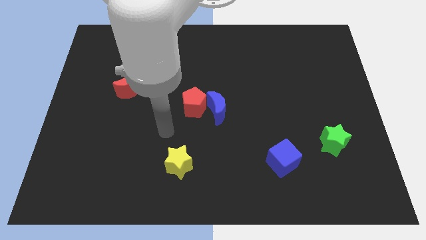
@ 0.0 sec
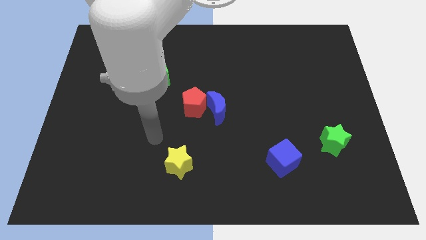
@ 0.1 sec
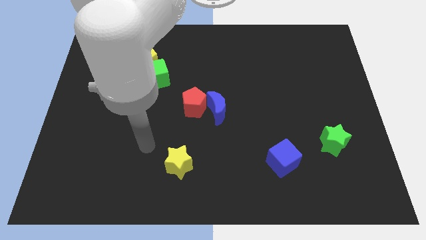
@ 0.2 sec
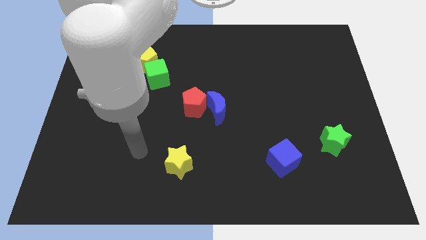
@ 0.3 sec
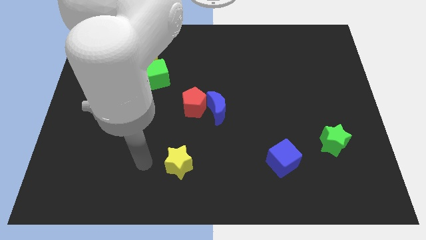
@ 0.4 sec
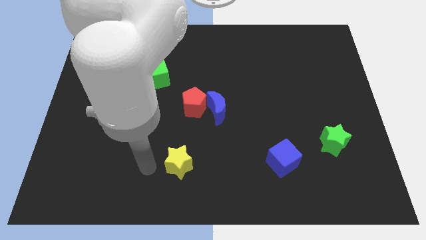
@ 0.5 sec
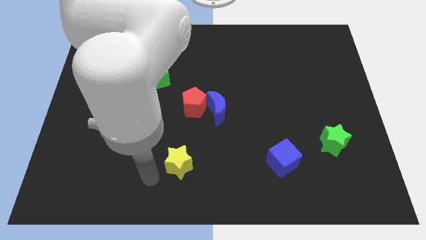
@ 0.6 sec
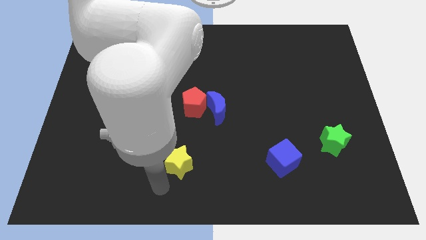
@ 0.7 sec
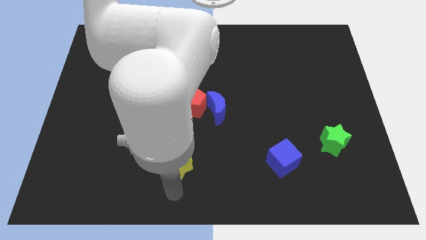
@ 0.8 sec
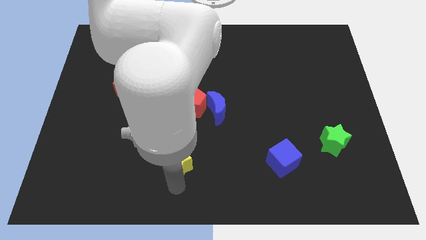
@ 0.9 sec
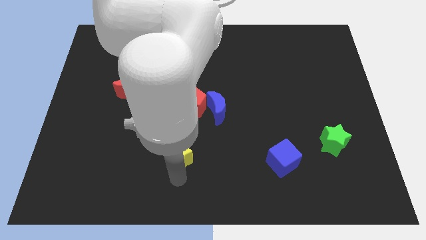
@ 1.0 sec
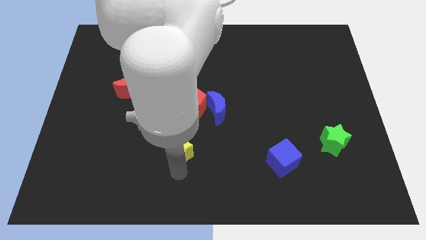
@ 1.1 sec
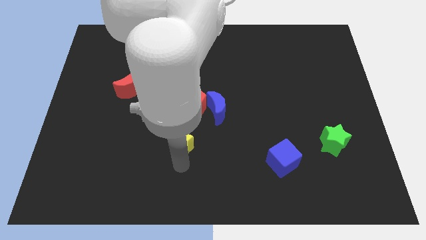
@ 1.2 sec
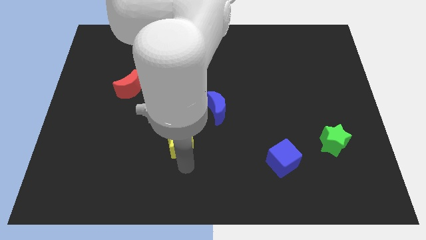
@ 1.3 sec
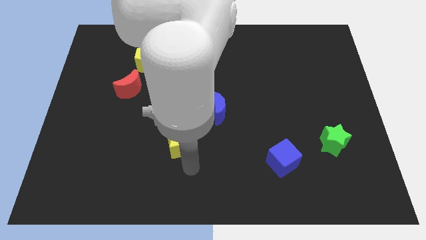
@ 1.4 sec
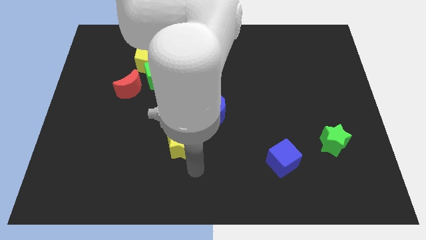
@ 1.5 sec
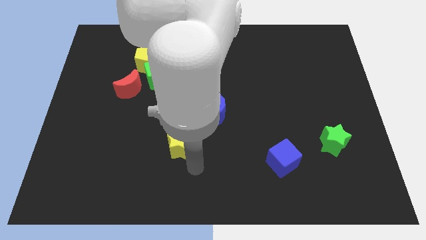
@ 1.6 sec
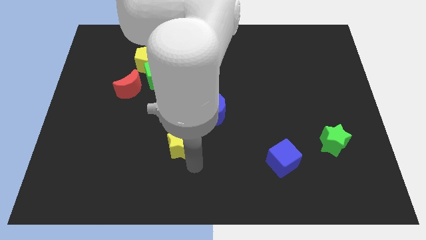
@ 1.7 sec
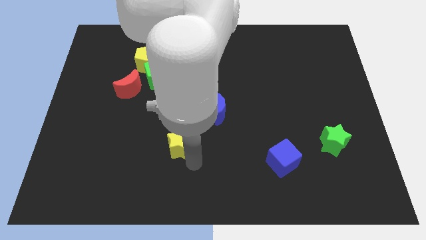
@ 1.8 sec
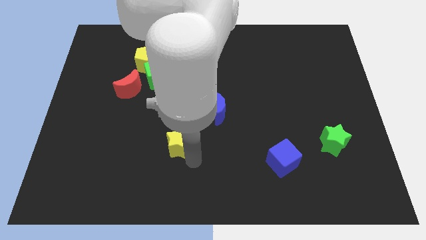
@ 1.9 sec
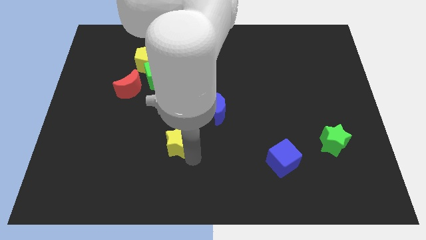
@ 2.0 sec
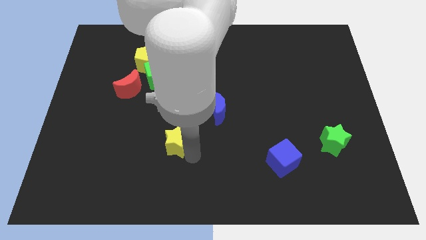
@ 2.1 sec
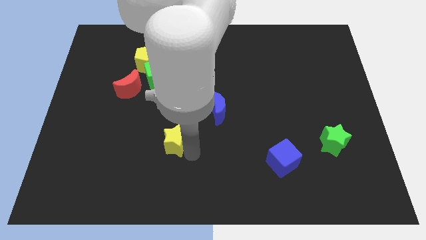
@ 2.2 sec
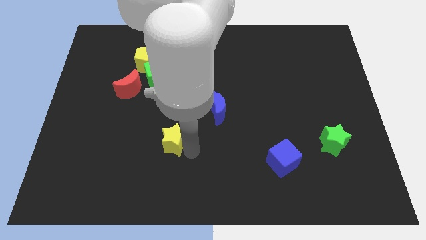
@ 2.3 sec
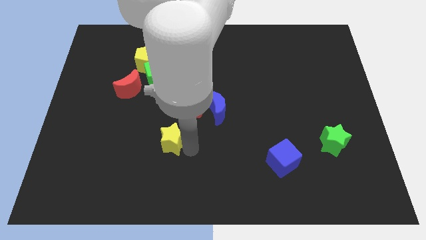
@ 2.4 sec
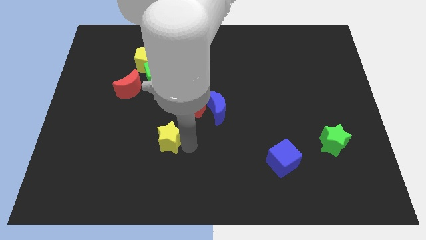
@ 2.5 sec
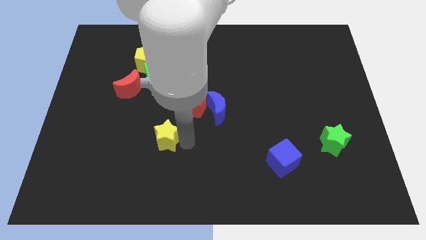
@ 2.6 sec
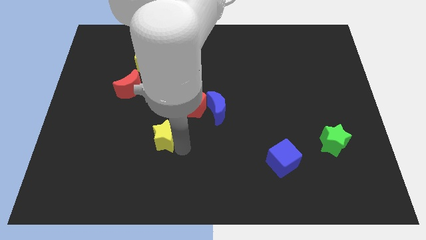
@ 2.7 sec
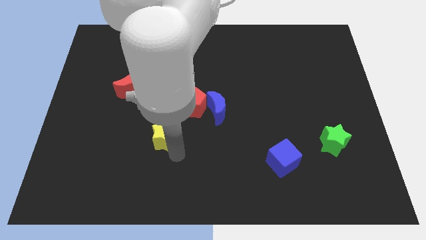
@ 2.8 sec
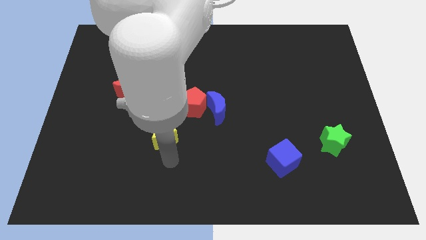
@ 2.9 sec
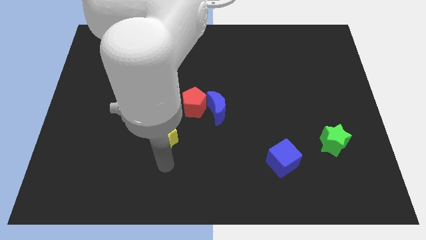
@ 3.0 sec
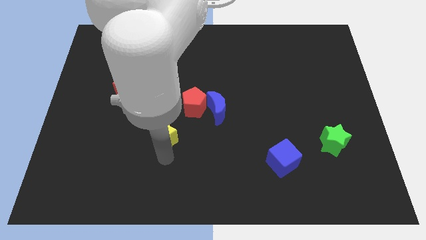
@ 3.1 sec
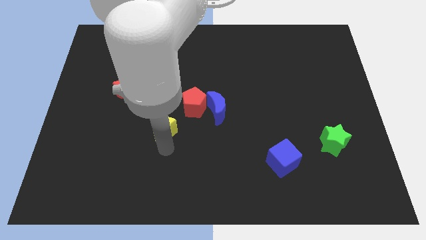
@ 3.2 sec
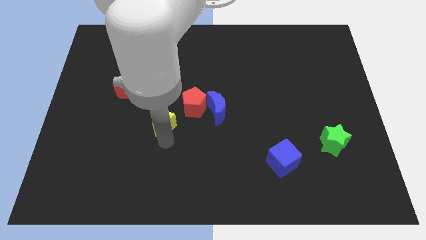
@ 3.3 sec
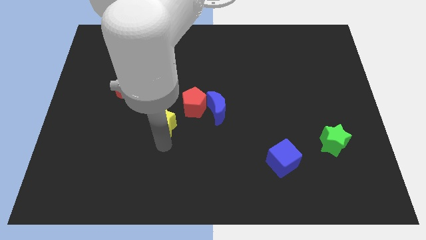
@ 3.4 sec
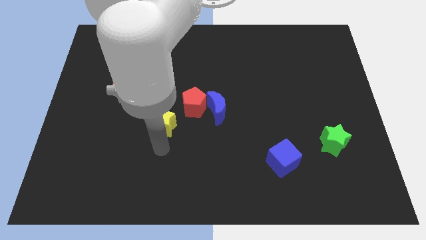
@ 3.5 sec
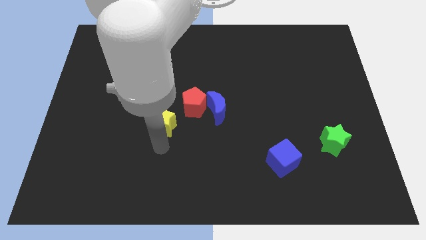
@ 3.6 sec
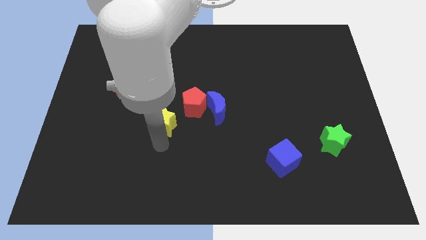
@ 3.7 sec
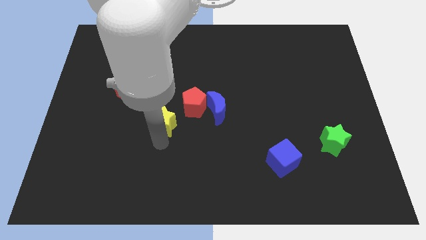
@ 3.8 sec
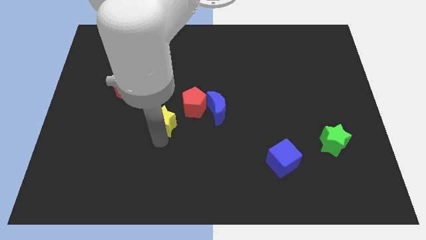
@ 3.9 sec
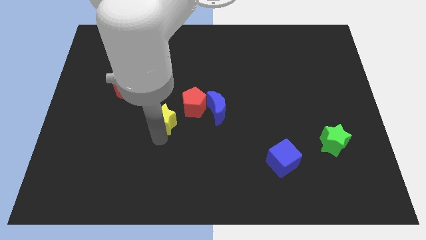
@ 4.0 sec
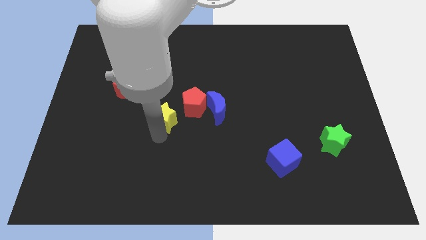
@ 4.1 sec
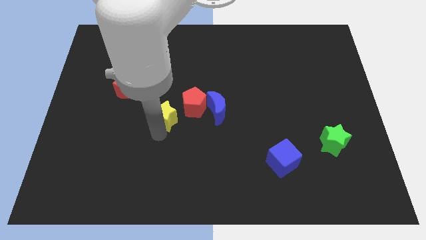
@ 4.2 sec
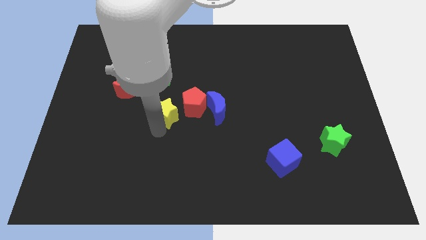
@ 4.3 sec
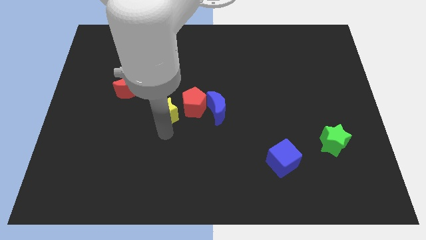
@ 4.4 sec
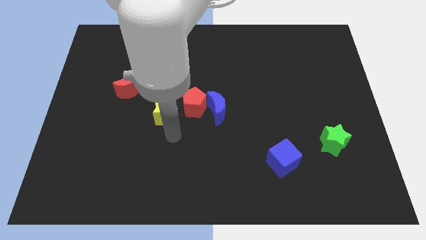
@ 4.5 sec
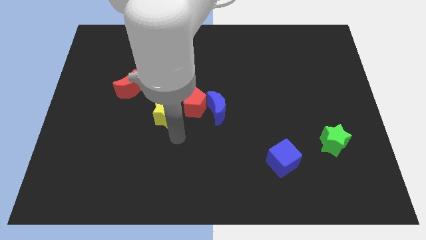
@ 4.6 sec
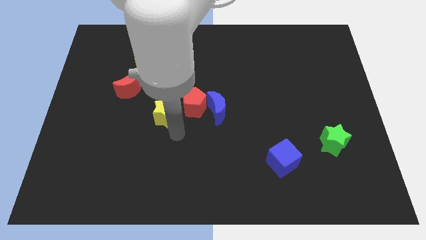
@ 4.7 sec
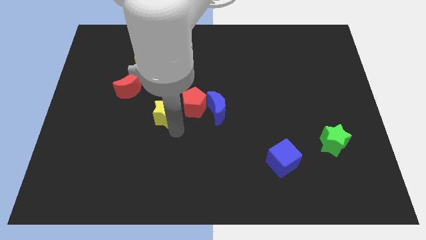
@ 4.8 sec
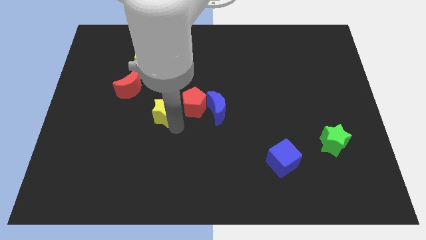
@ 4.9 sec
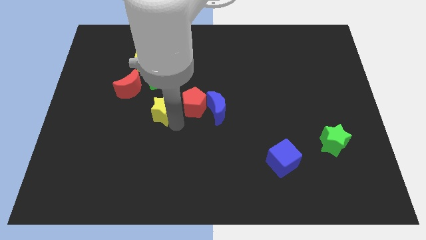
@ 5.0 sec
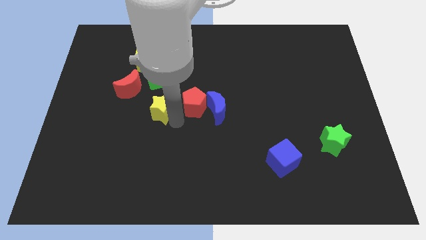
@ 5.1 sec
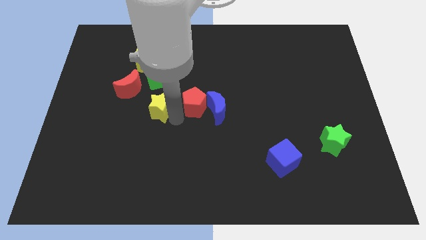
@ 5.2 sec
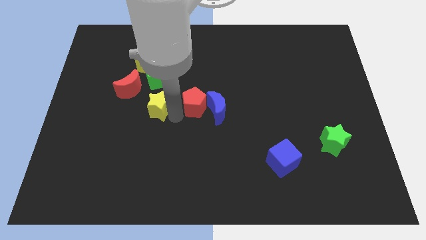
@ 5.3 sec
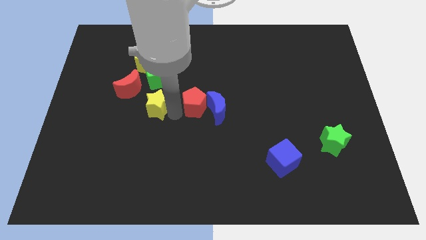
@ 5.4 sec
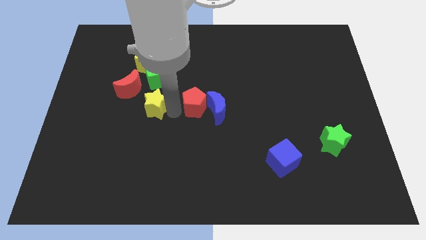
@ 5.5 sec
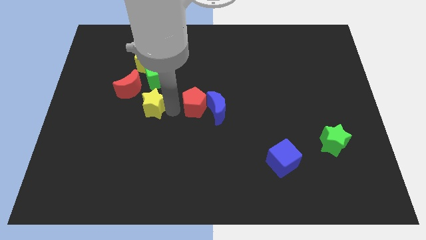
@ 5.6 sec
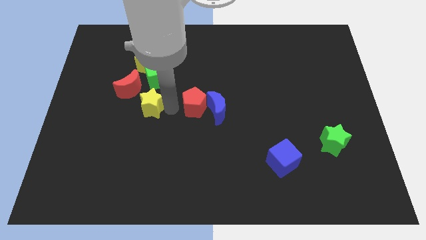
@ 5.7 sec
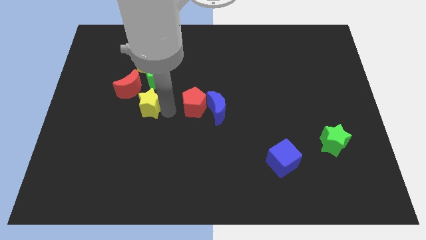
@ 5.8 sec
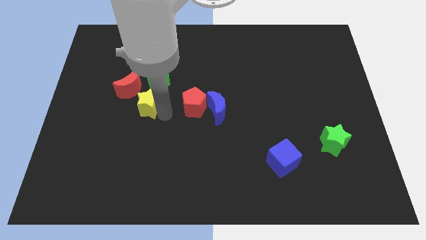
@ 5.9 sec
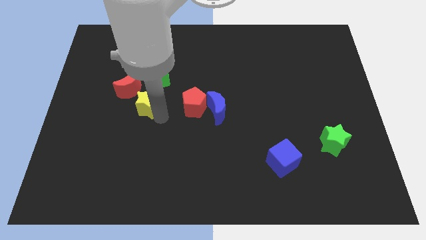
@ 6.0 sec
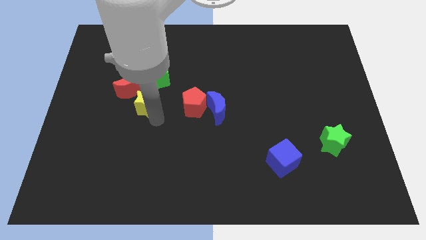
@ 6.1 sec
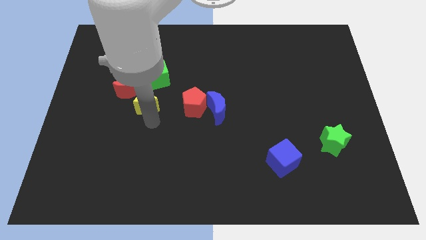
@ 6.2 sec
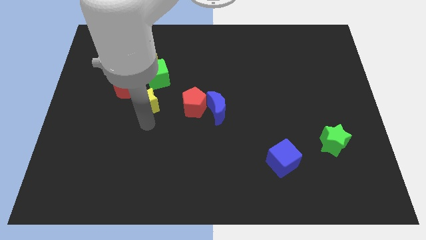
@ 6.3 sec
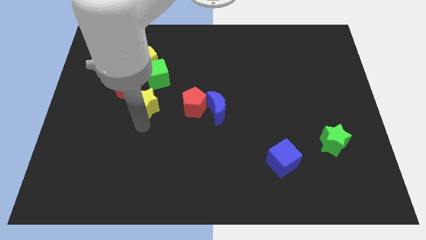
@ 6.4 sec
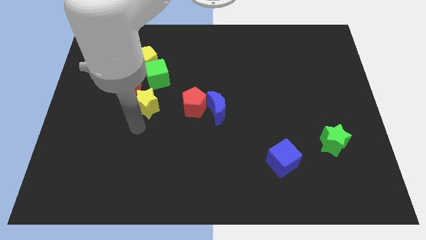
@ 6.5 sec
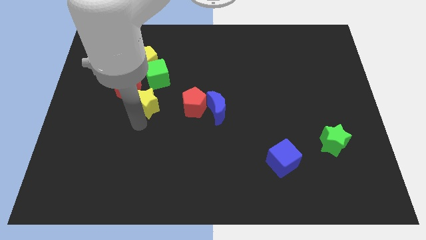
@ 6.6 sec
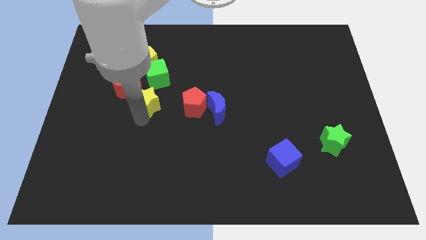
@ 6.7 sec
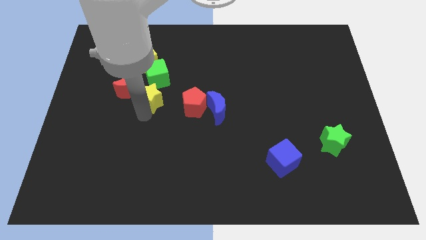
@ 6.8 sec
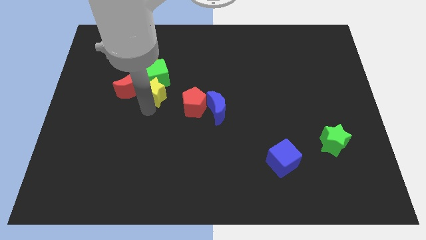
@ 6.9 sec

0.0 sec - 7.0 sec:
push the yellow star towards the green cube

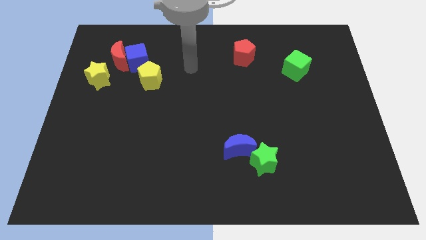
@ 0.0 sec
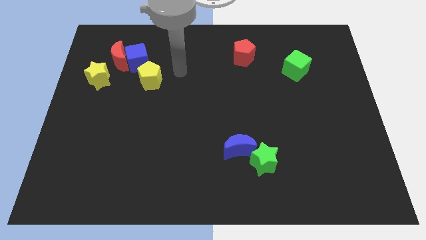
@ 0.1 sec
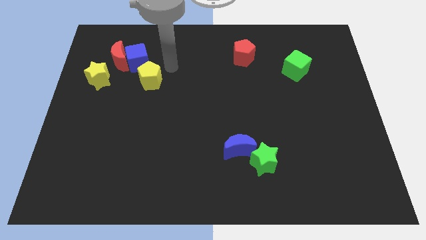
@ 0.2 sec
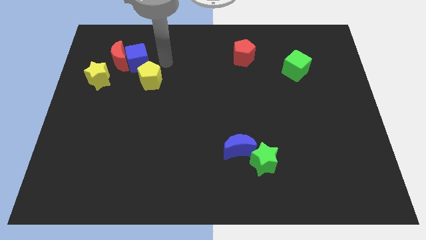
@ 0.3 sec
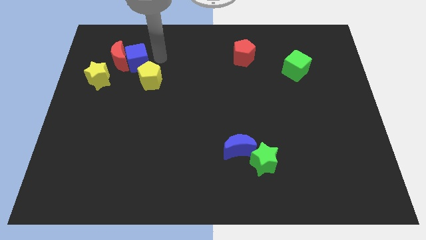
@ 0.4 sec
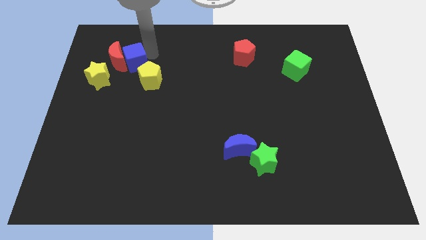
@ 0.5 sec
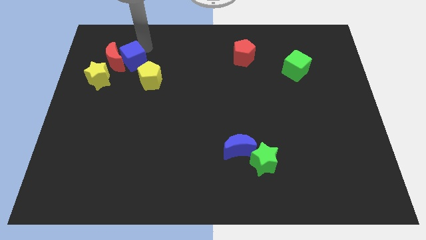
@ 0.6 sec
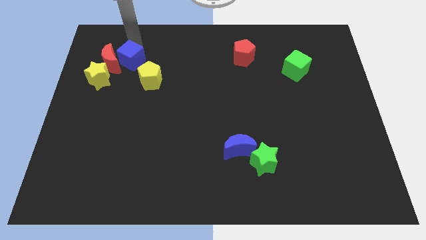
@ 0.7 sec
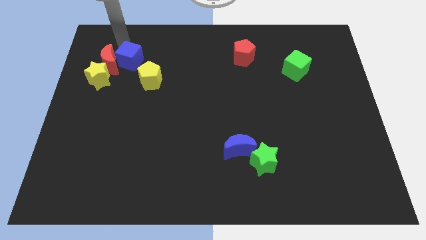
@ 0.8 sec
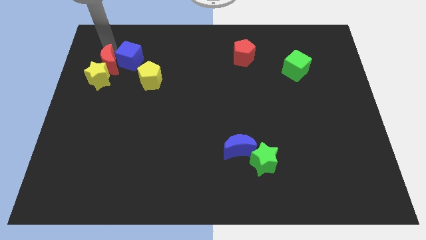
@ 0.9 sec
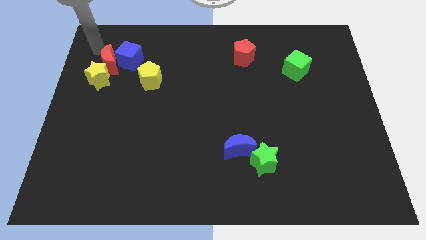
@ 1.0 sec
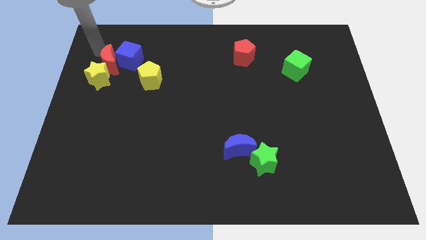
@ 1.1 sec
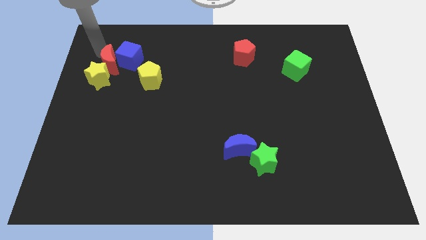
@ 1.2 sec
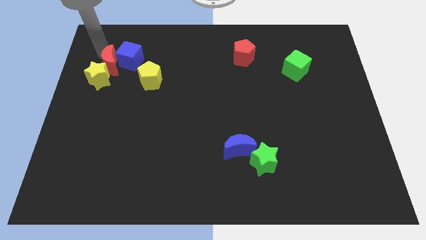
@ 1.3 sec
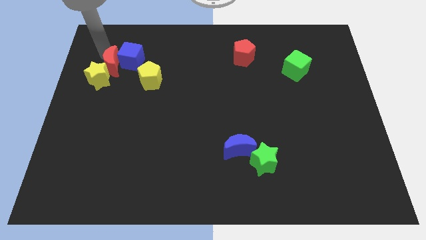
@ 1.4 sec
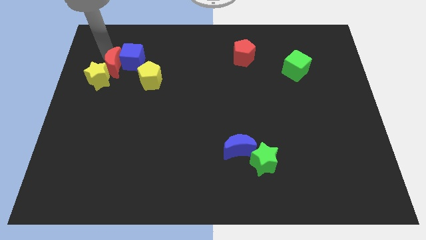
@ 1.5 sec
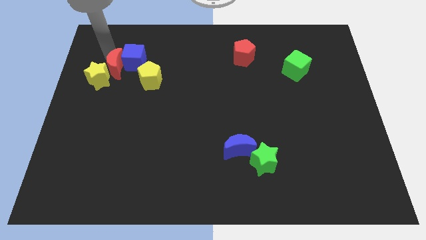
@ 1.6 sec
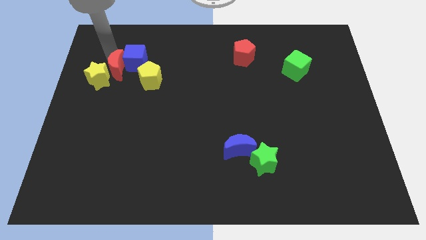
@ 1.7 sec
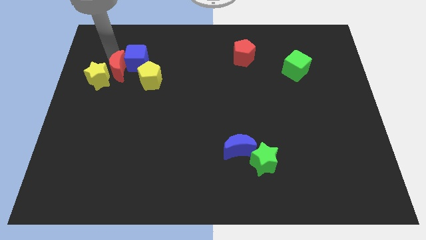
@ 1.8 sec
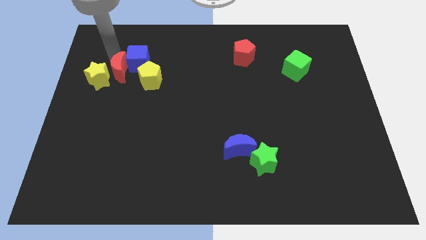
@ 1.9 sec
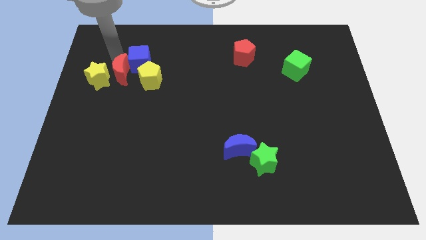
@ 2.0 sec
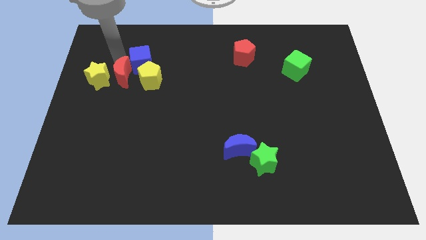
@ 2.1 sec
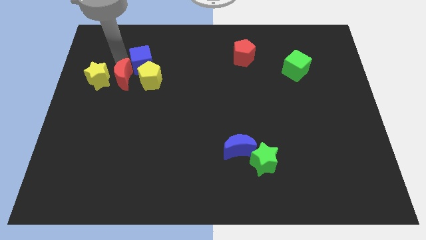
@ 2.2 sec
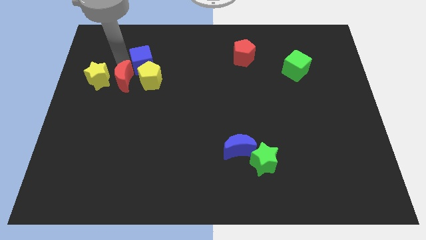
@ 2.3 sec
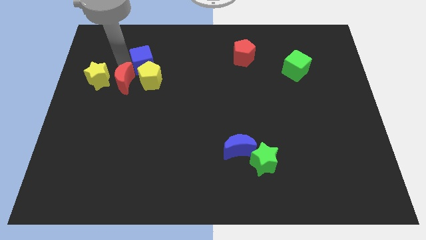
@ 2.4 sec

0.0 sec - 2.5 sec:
slide the red moon close to the yellow pentagon
